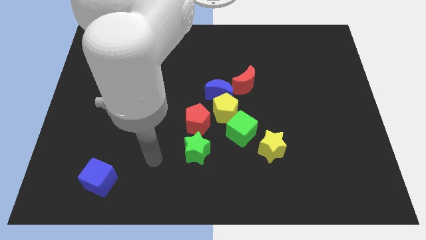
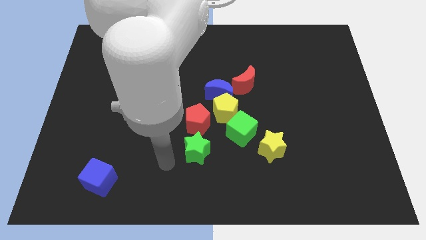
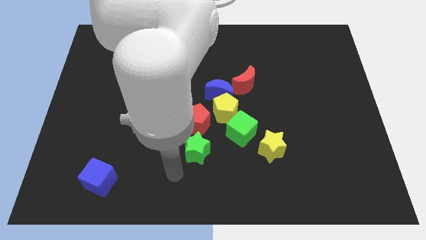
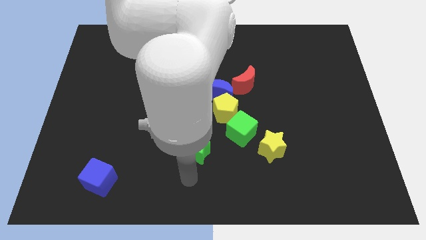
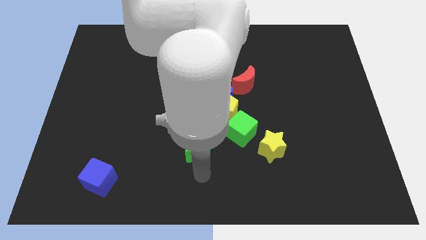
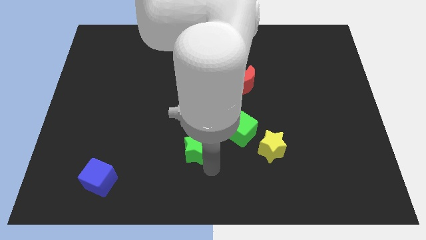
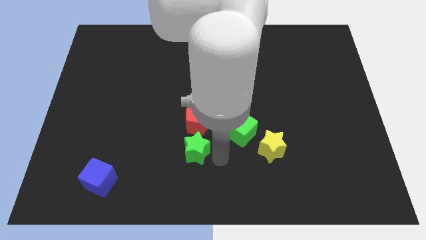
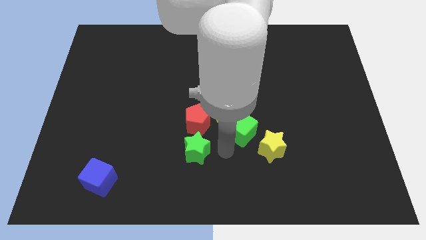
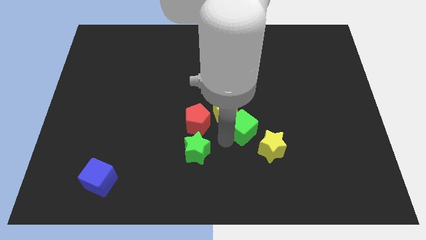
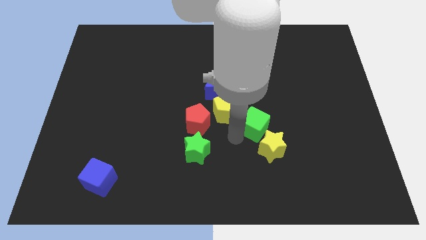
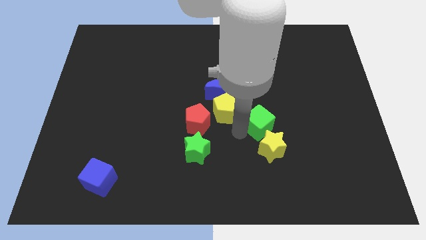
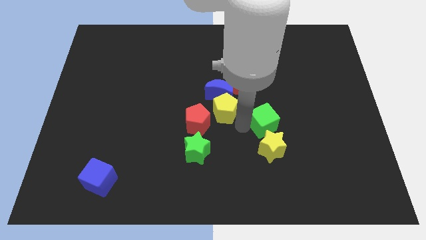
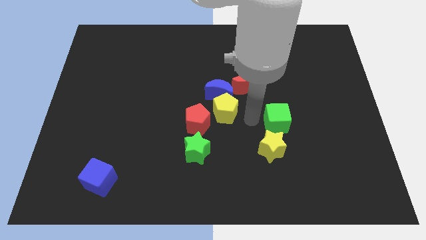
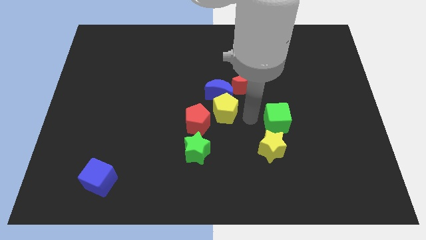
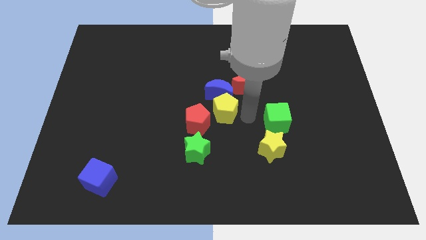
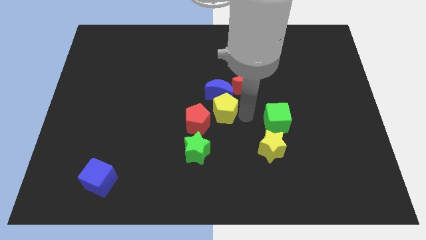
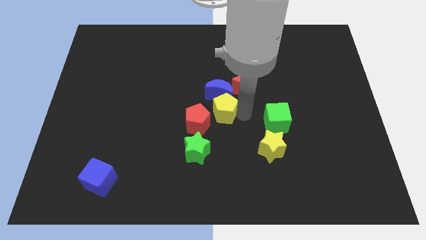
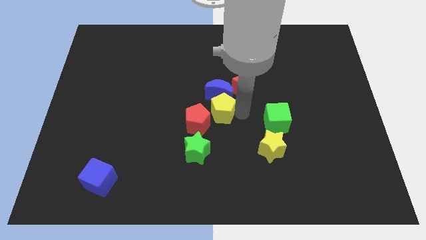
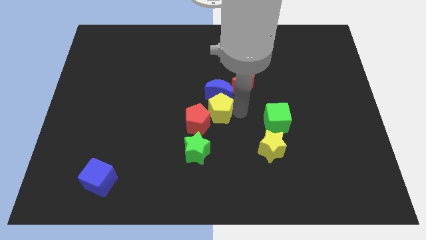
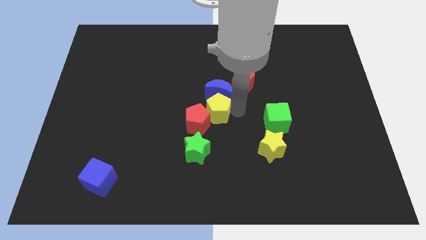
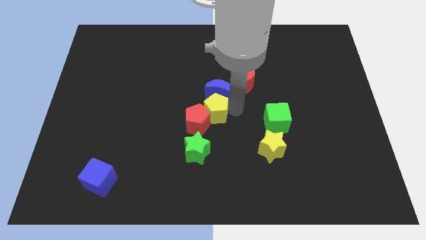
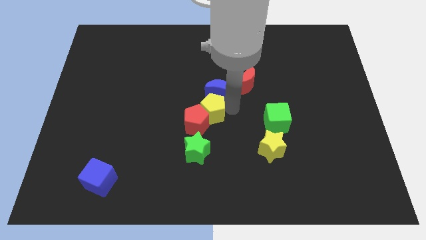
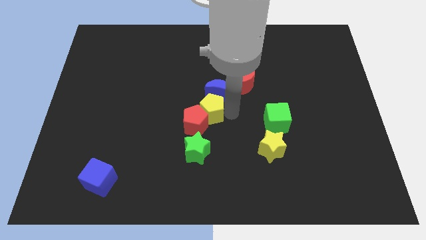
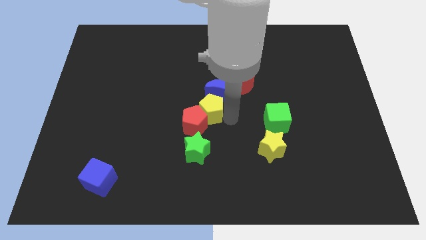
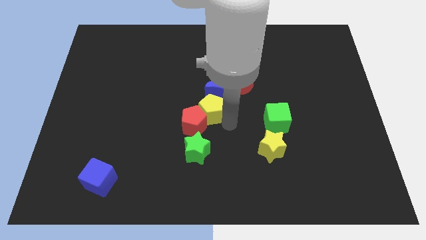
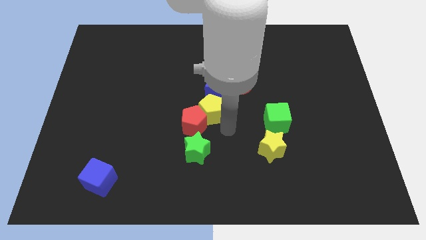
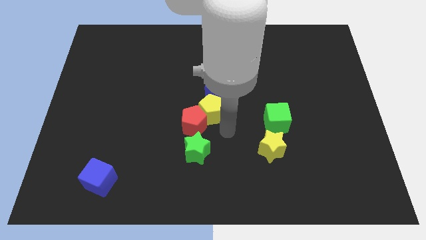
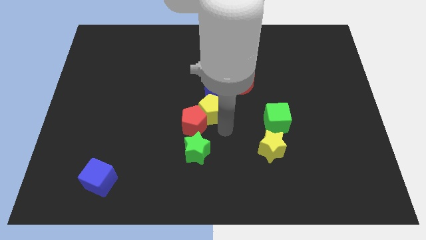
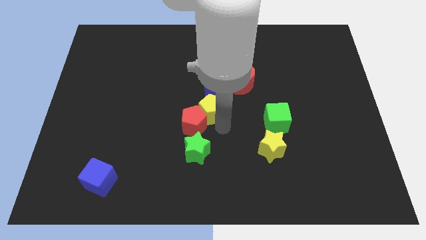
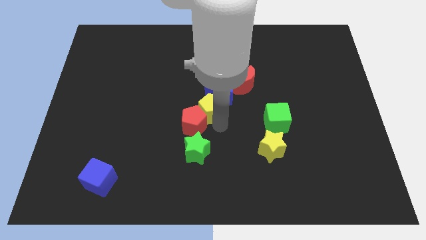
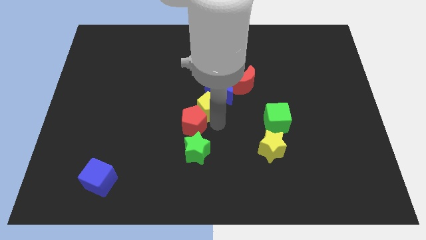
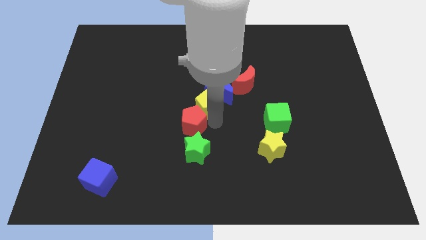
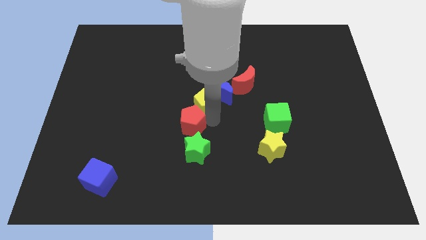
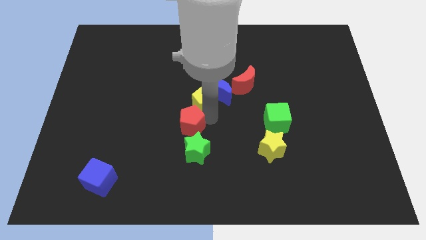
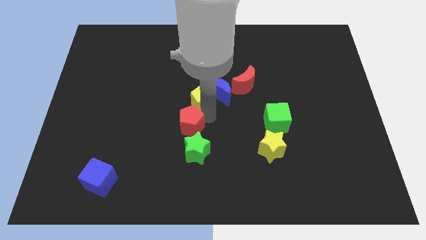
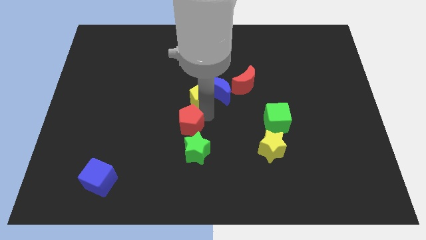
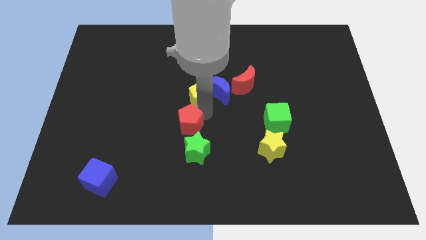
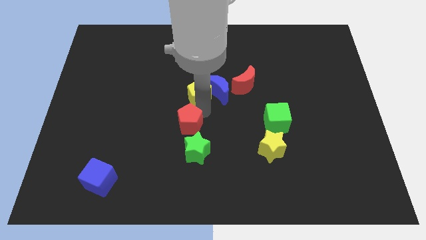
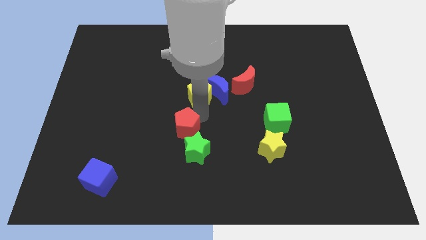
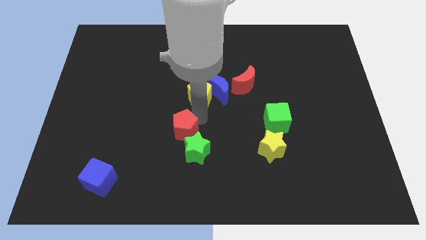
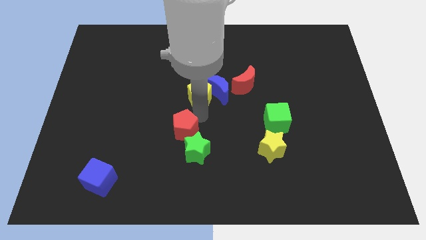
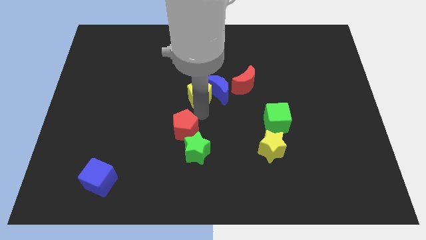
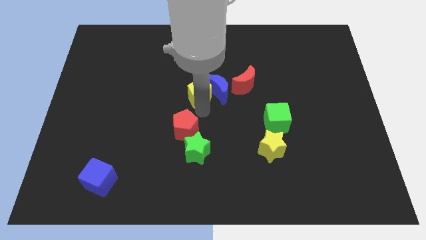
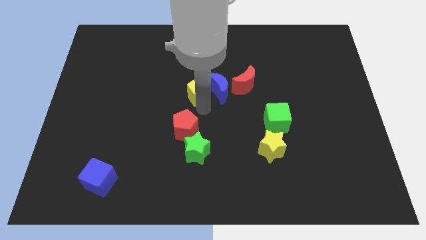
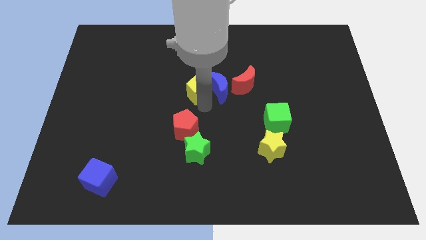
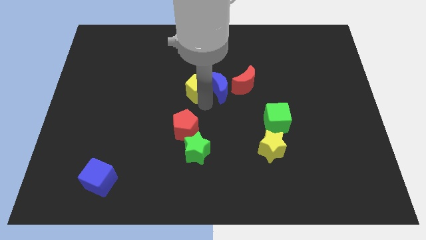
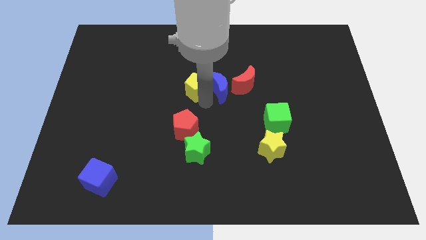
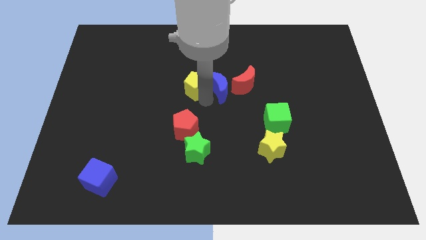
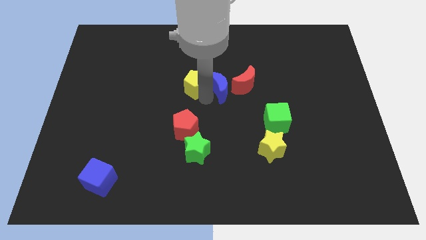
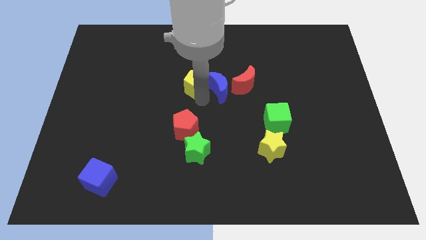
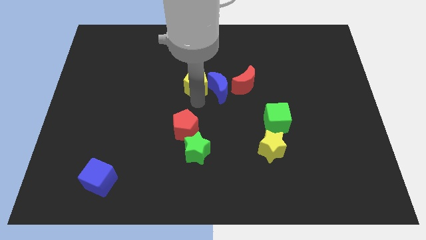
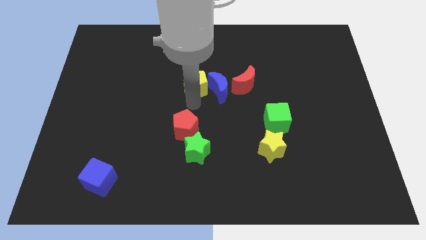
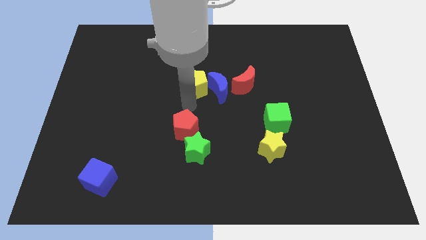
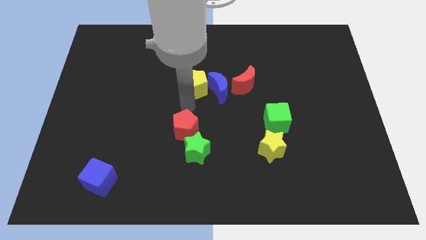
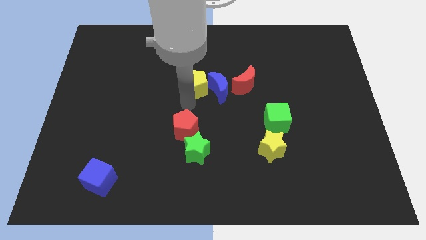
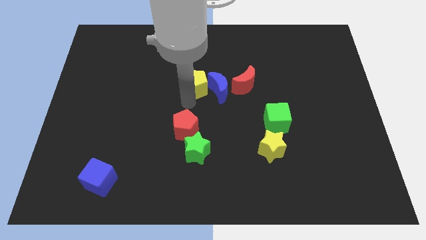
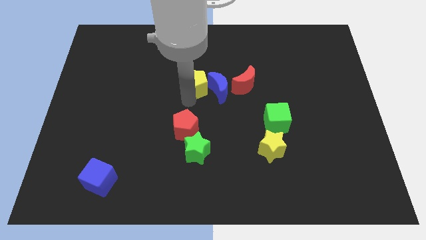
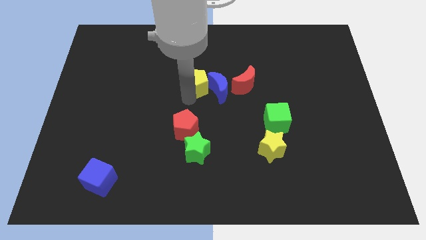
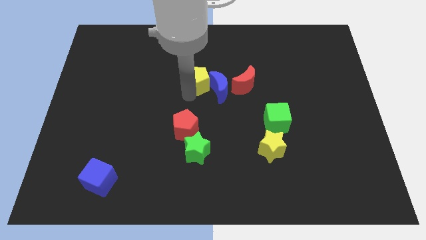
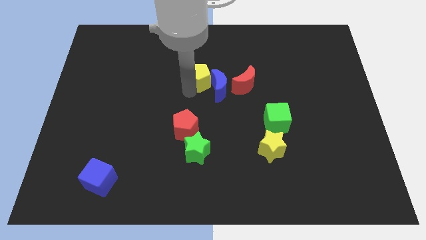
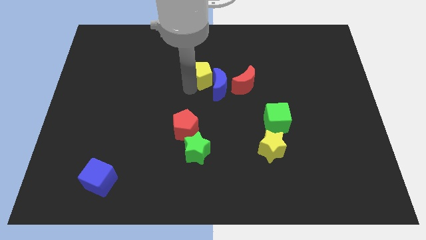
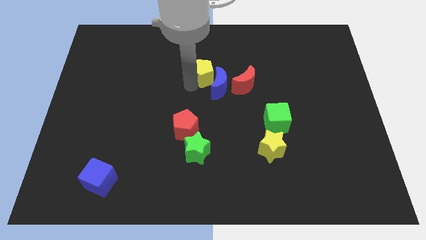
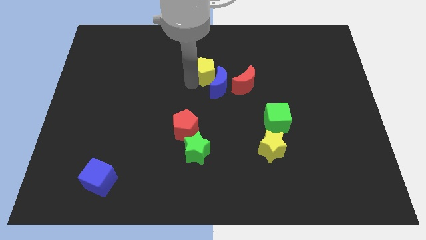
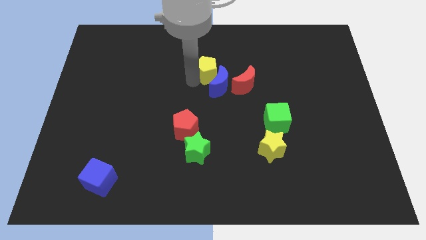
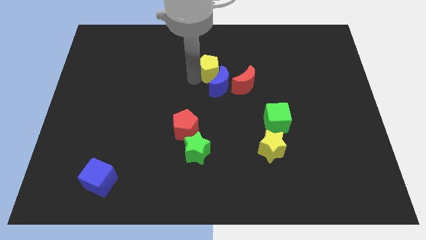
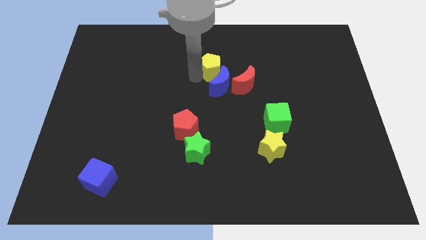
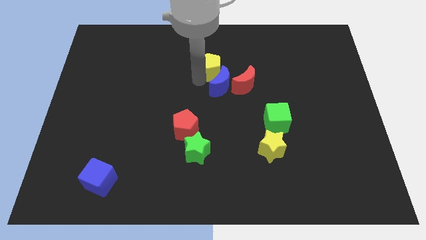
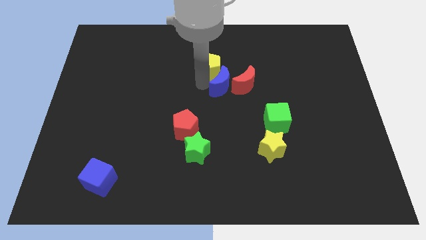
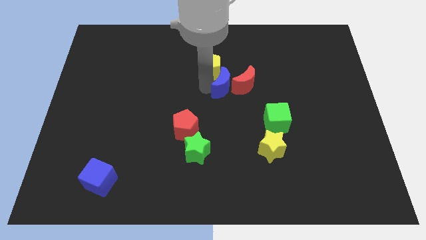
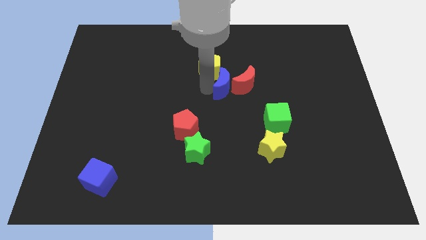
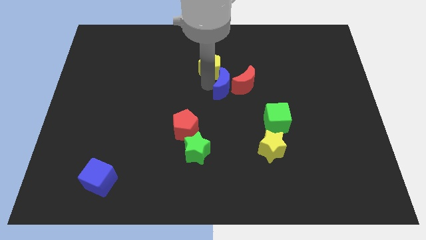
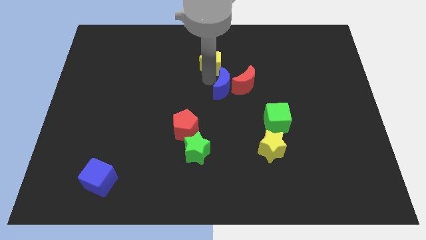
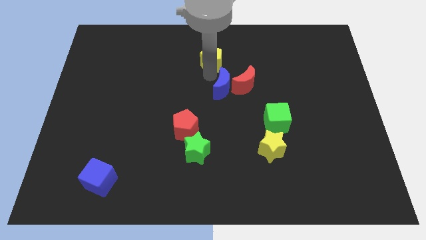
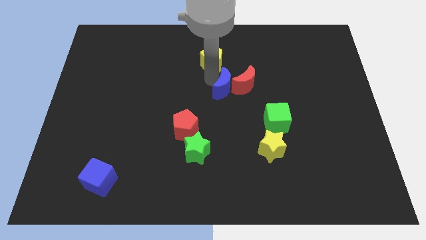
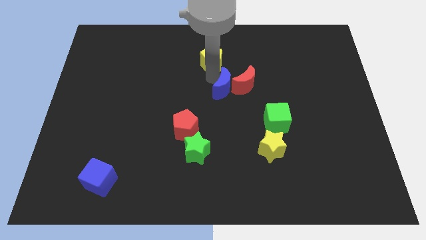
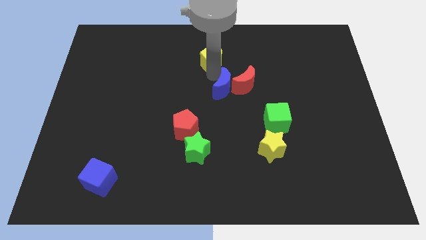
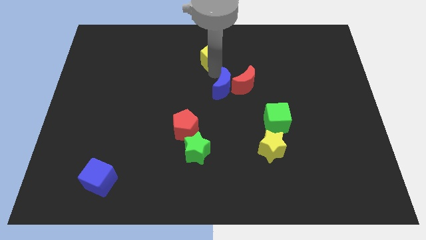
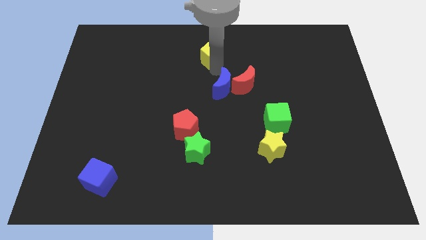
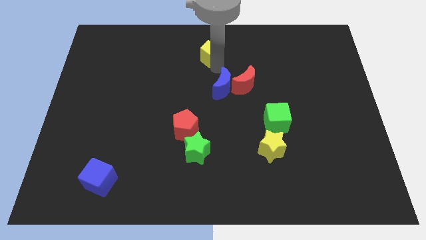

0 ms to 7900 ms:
slide the yellow pentagon to the top side
